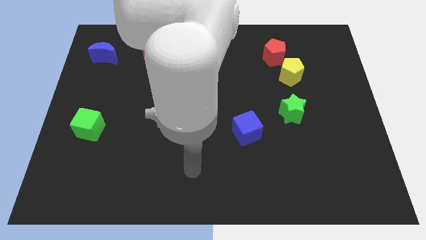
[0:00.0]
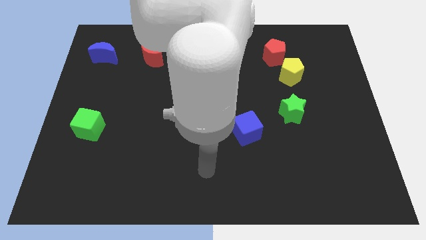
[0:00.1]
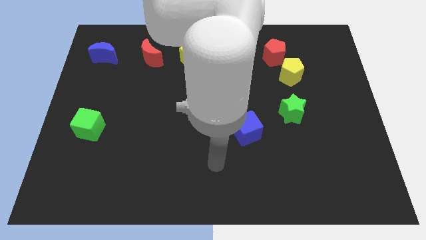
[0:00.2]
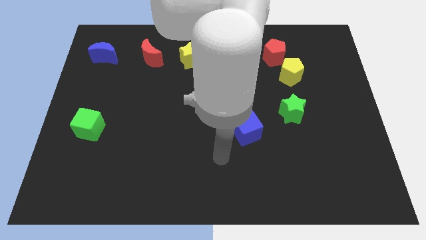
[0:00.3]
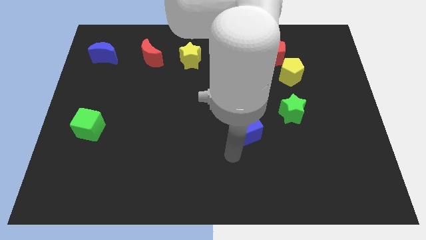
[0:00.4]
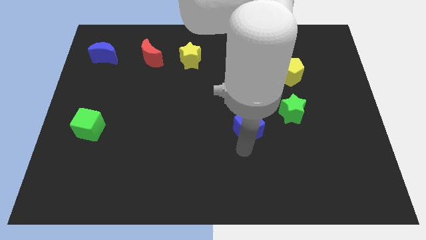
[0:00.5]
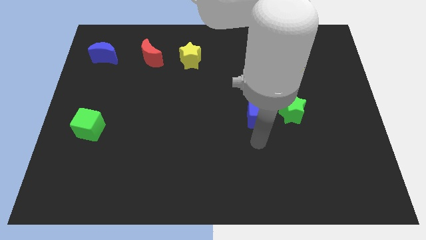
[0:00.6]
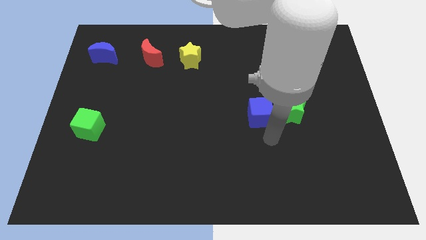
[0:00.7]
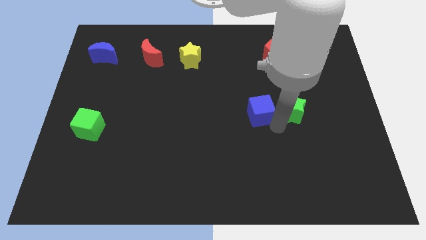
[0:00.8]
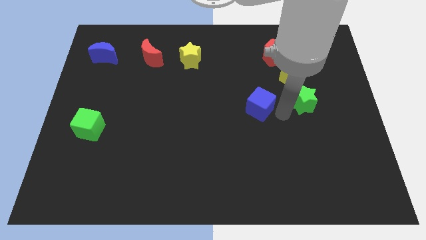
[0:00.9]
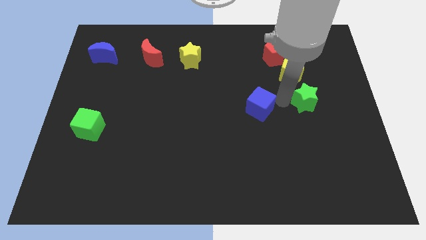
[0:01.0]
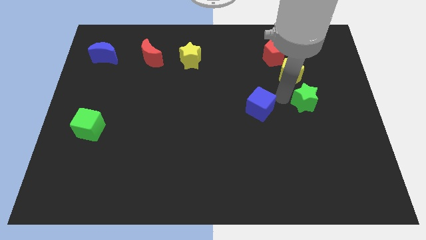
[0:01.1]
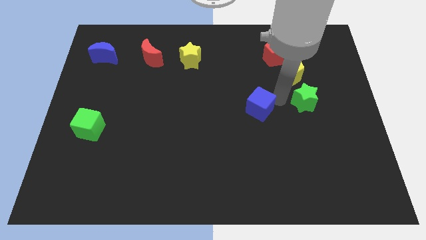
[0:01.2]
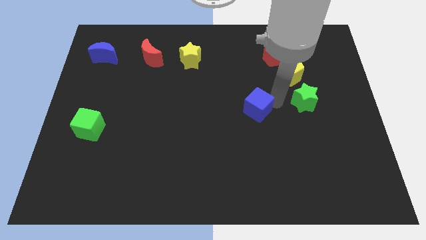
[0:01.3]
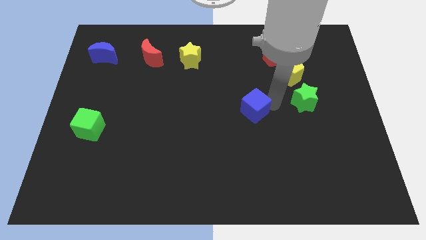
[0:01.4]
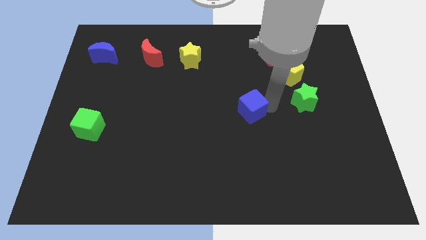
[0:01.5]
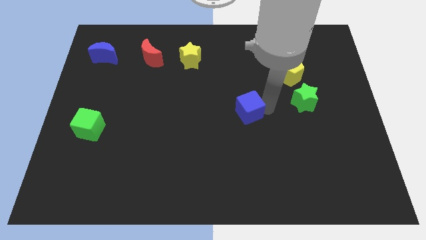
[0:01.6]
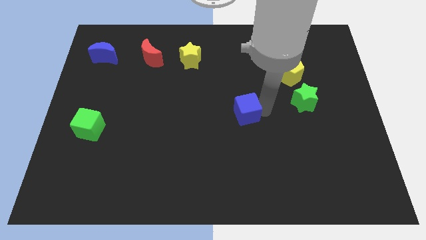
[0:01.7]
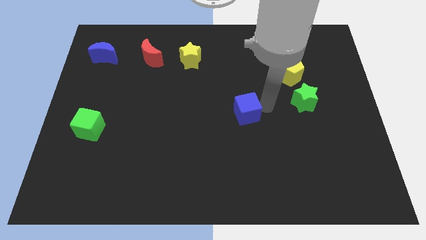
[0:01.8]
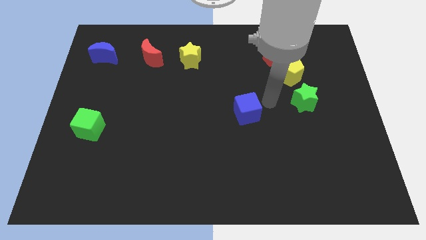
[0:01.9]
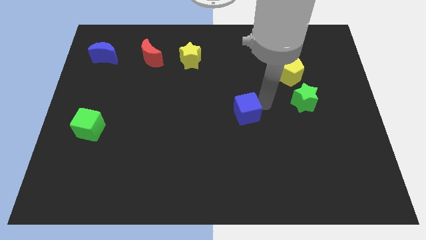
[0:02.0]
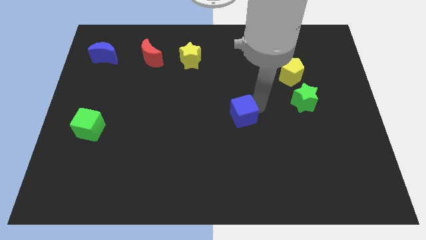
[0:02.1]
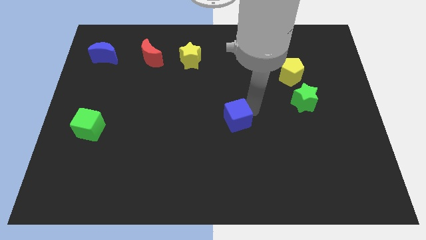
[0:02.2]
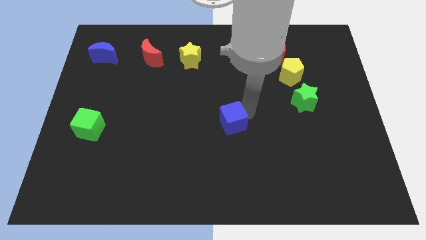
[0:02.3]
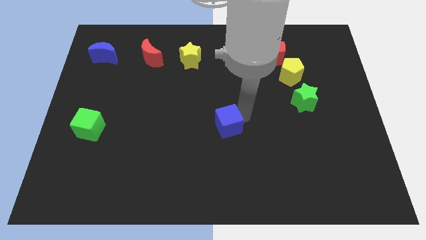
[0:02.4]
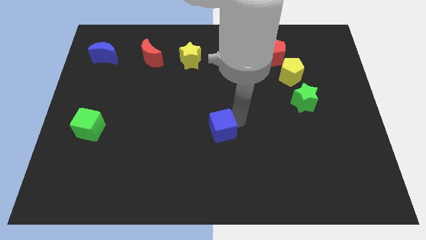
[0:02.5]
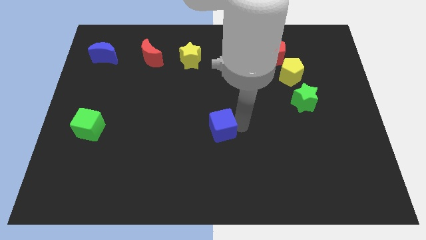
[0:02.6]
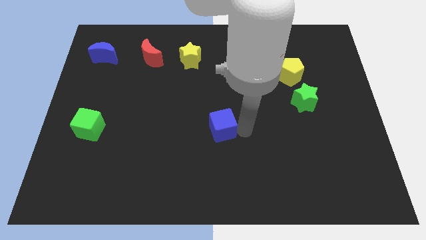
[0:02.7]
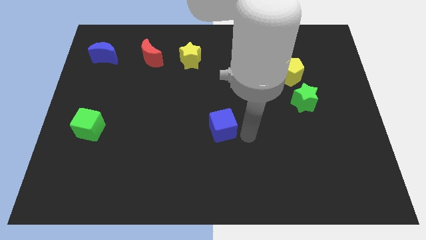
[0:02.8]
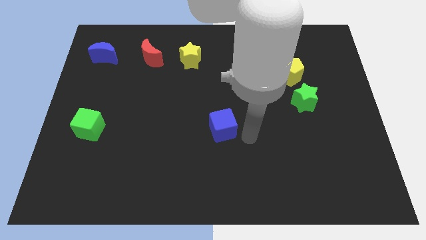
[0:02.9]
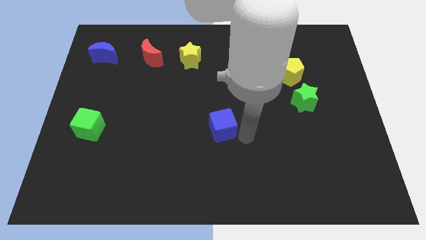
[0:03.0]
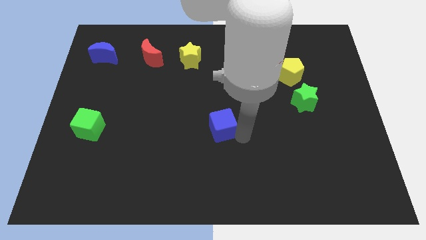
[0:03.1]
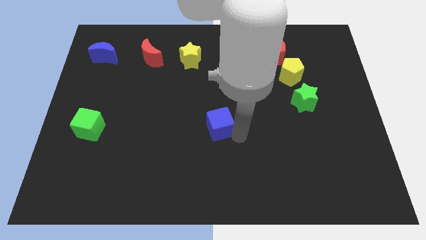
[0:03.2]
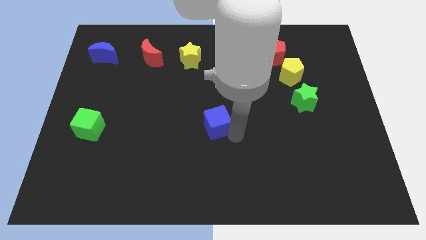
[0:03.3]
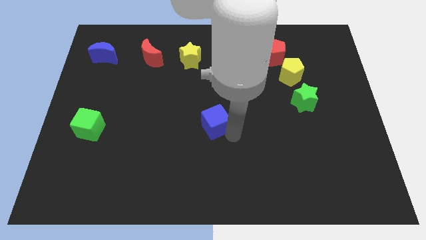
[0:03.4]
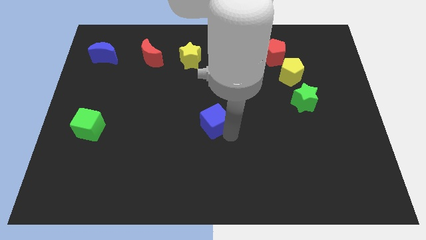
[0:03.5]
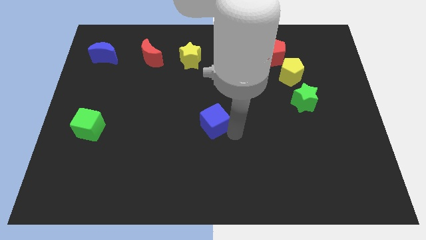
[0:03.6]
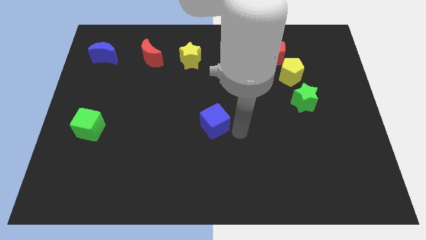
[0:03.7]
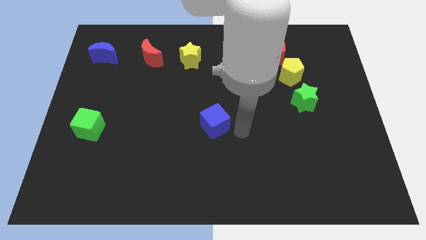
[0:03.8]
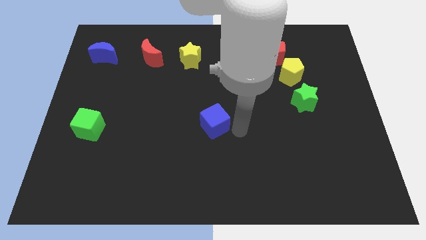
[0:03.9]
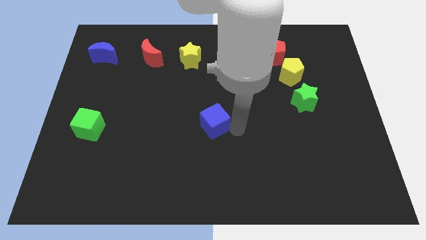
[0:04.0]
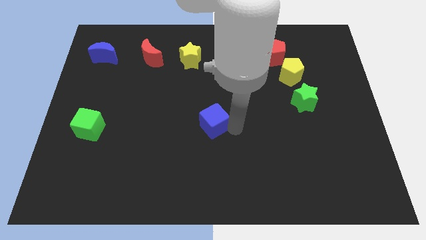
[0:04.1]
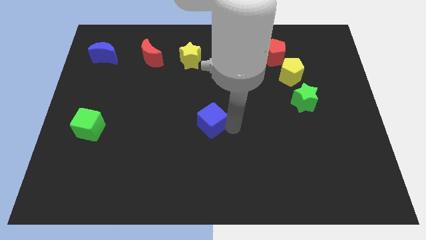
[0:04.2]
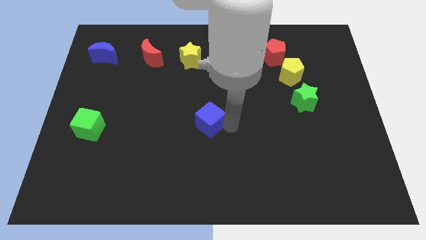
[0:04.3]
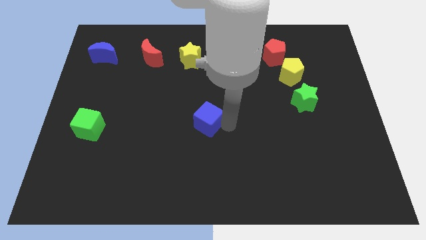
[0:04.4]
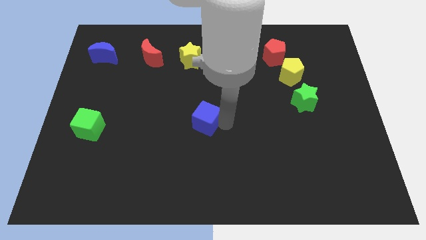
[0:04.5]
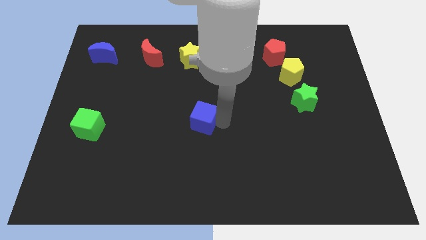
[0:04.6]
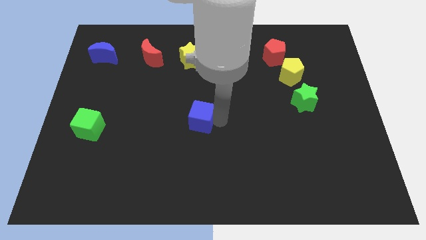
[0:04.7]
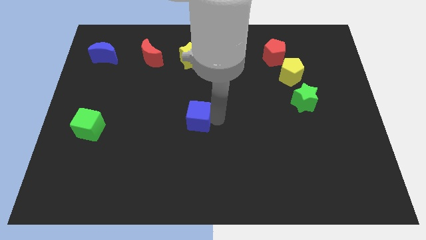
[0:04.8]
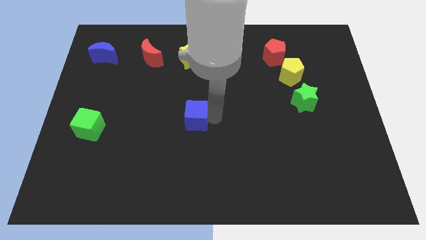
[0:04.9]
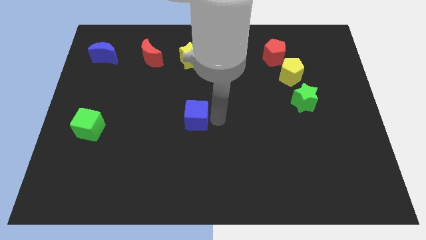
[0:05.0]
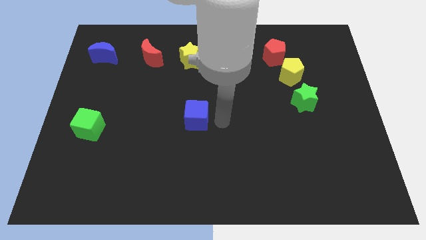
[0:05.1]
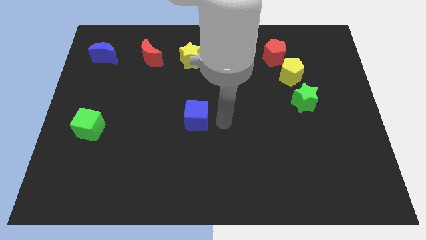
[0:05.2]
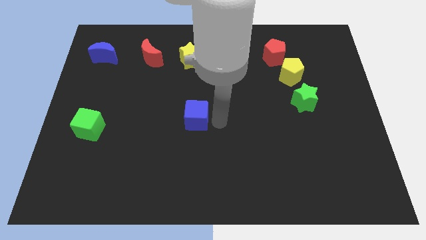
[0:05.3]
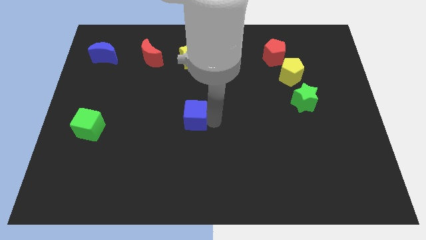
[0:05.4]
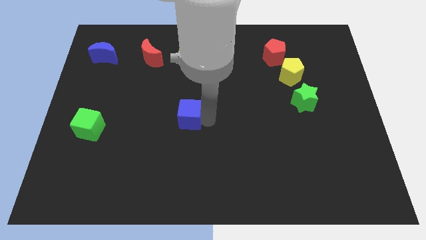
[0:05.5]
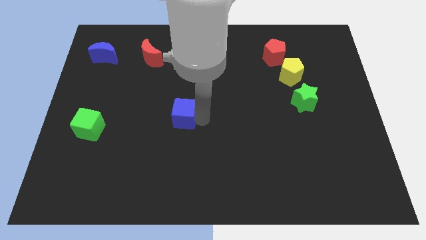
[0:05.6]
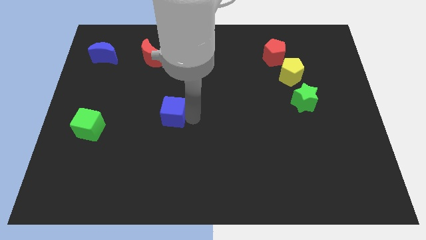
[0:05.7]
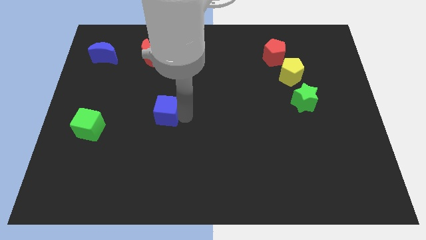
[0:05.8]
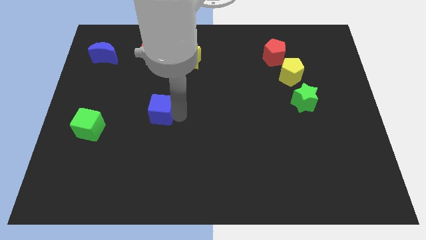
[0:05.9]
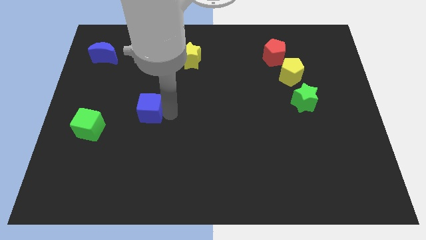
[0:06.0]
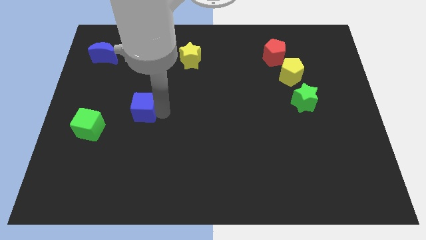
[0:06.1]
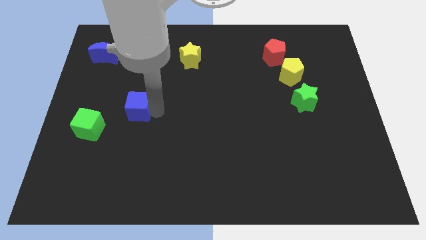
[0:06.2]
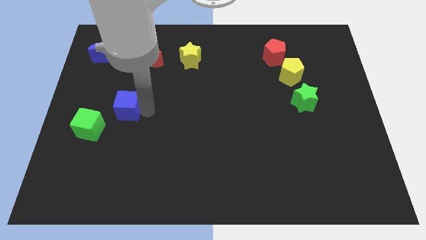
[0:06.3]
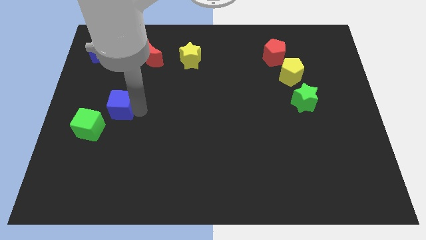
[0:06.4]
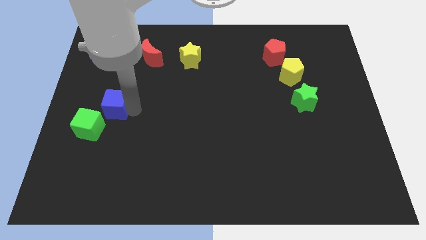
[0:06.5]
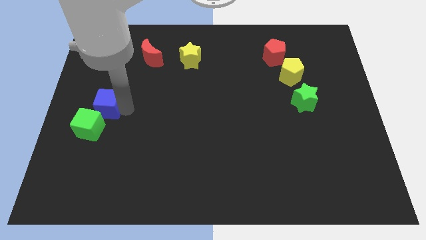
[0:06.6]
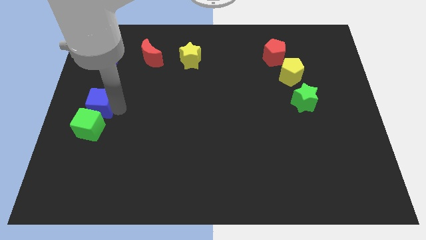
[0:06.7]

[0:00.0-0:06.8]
push the blue cube to the left side of the board
